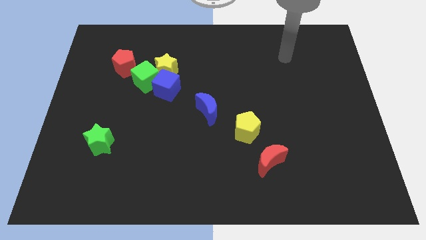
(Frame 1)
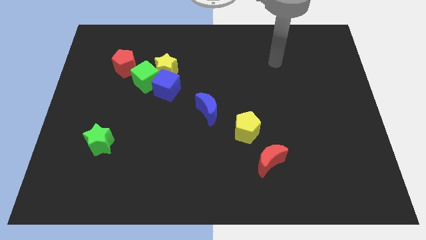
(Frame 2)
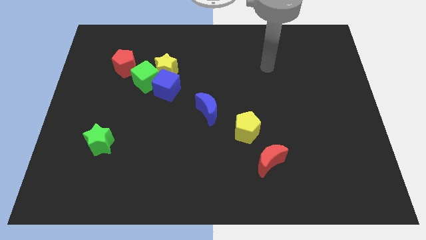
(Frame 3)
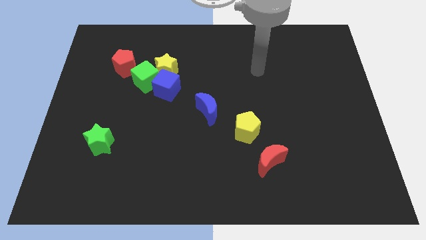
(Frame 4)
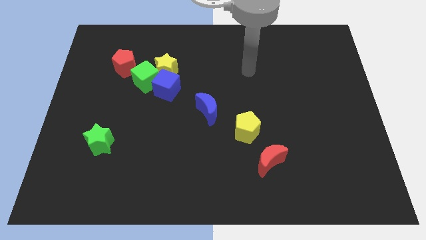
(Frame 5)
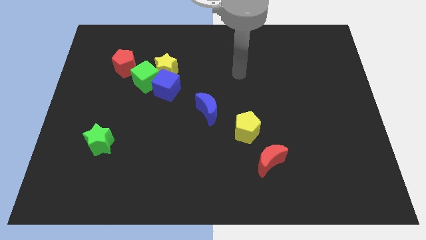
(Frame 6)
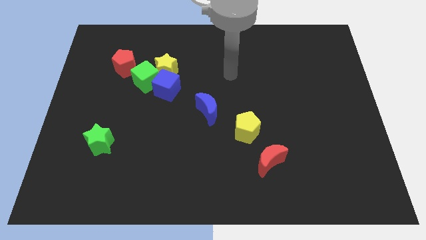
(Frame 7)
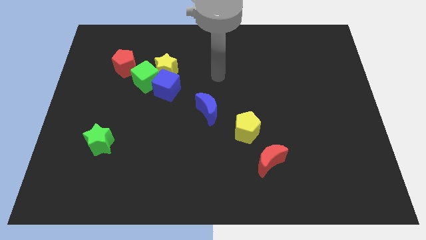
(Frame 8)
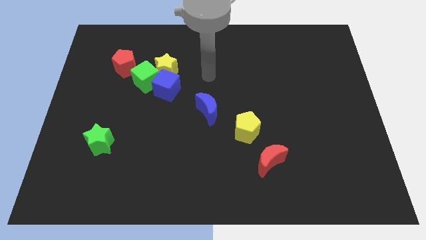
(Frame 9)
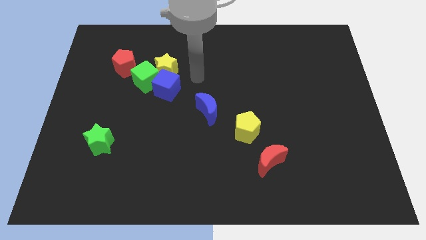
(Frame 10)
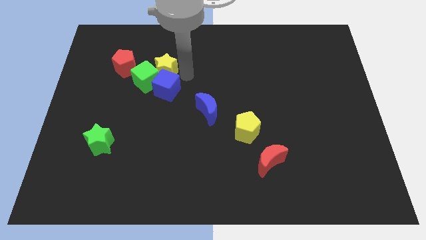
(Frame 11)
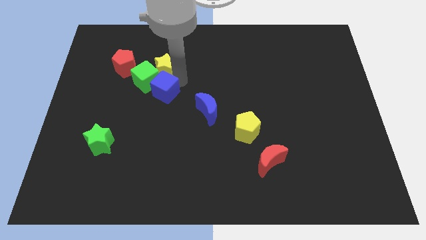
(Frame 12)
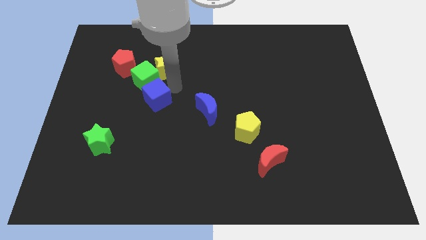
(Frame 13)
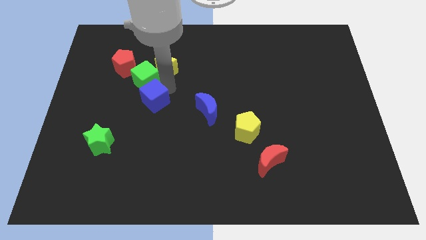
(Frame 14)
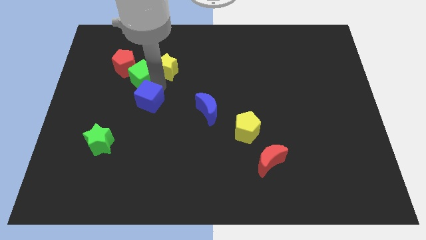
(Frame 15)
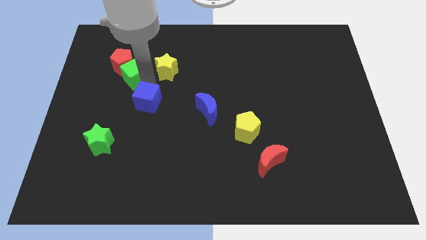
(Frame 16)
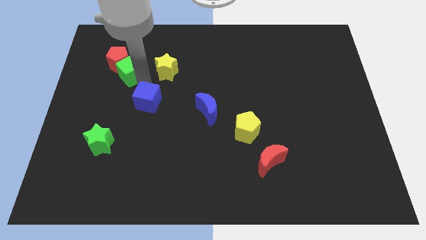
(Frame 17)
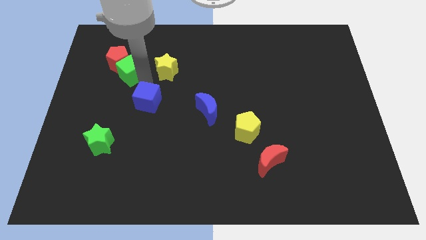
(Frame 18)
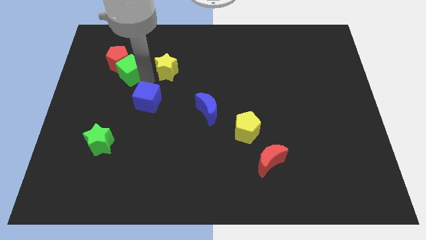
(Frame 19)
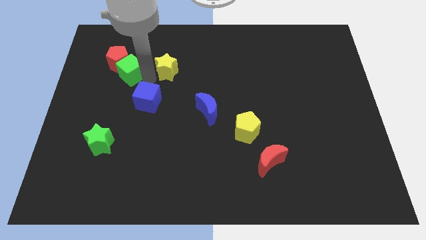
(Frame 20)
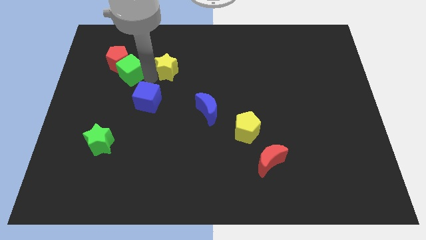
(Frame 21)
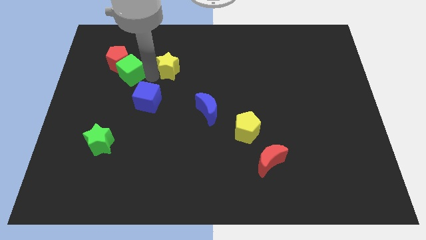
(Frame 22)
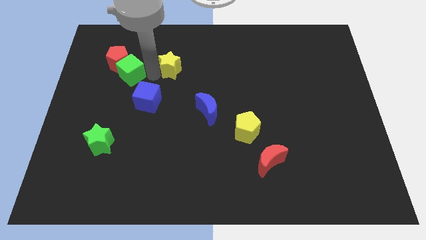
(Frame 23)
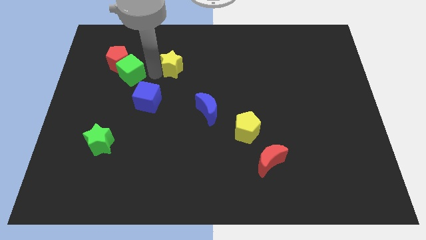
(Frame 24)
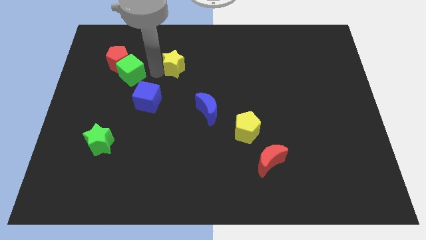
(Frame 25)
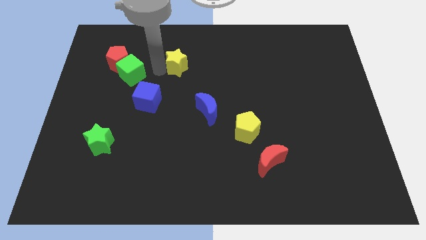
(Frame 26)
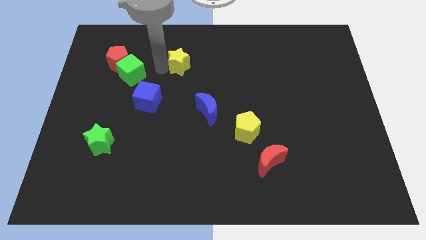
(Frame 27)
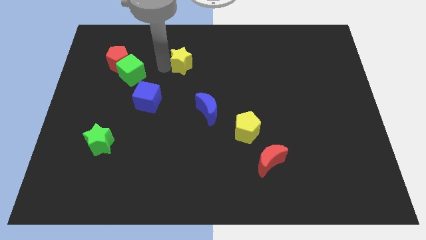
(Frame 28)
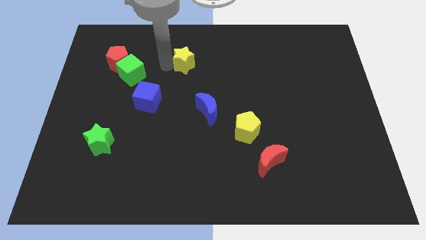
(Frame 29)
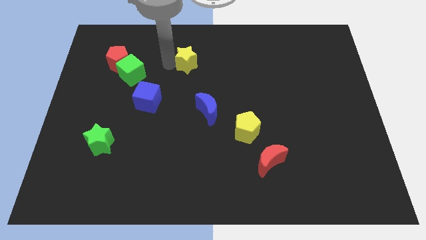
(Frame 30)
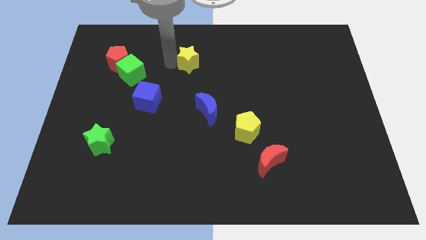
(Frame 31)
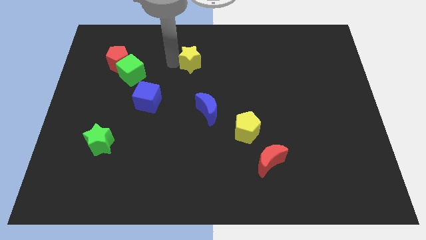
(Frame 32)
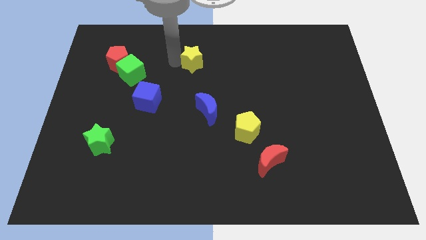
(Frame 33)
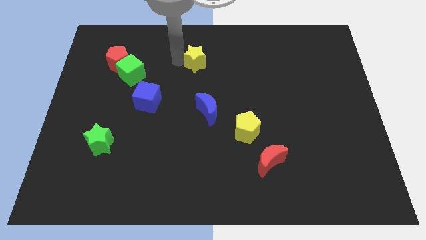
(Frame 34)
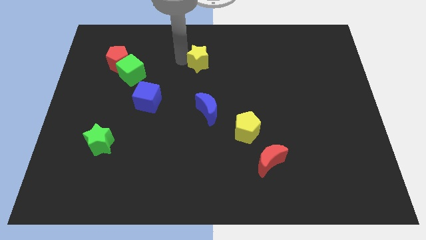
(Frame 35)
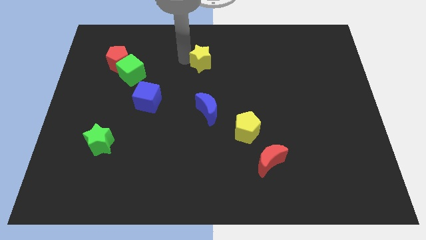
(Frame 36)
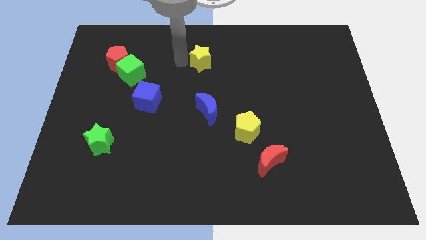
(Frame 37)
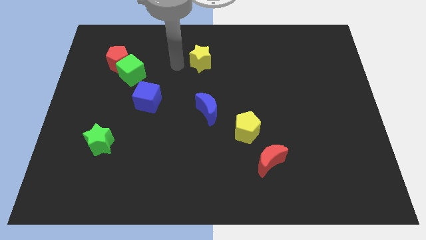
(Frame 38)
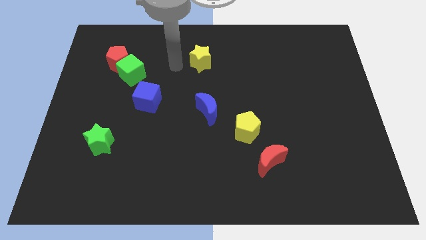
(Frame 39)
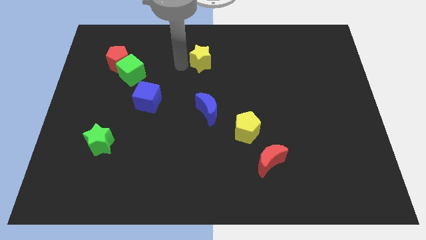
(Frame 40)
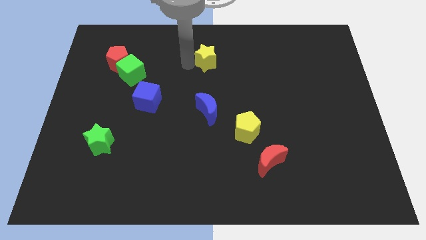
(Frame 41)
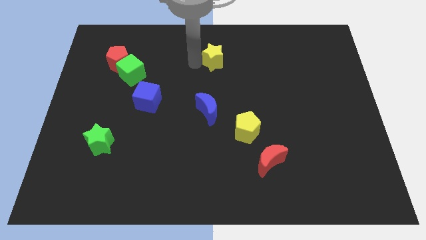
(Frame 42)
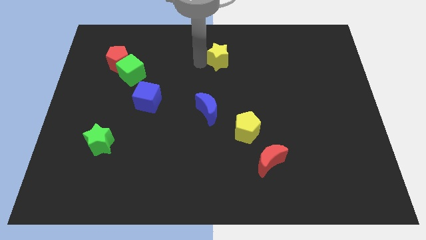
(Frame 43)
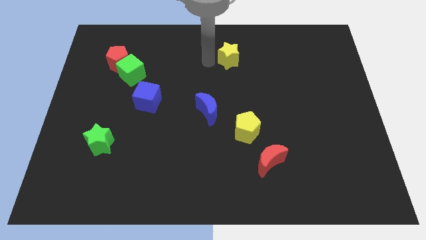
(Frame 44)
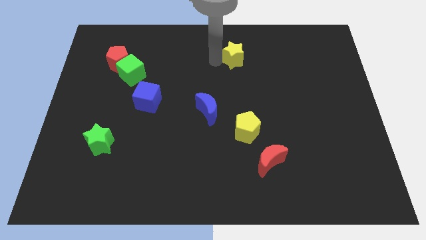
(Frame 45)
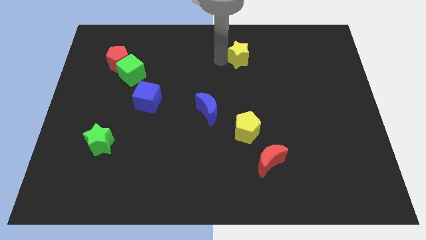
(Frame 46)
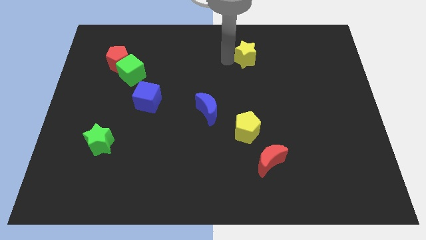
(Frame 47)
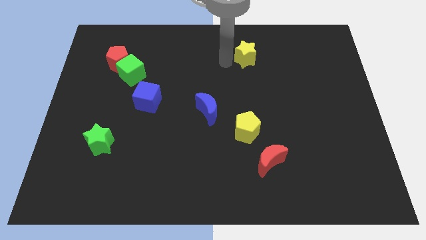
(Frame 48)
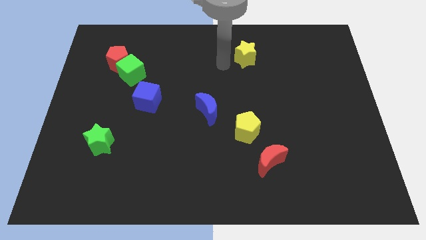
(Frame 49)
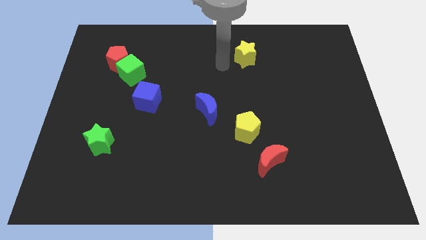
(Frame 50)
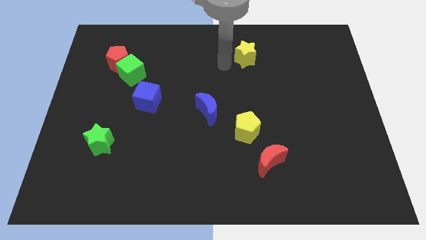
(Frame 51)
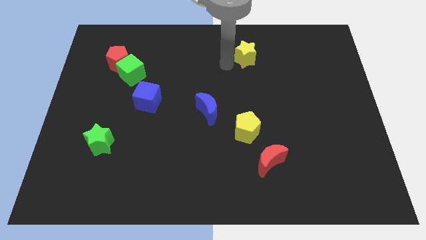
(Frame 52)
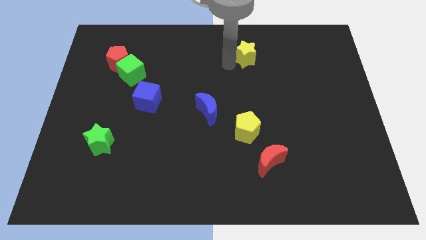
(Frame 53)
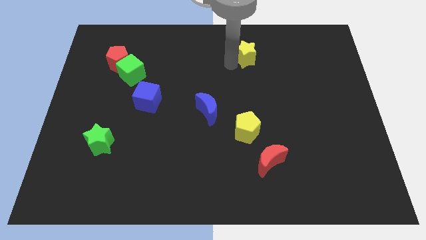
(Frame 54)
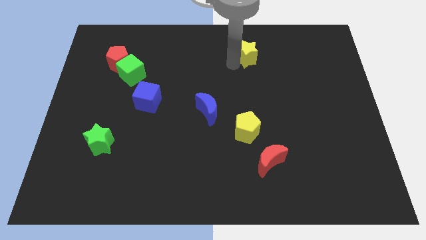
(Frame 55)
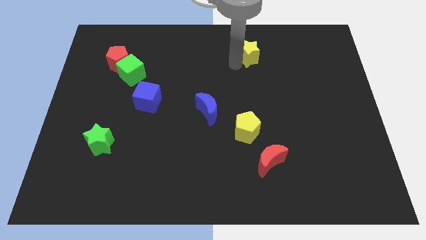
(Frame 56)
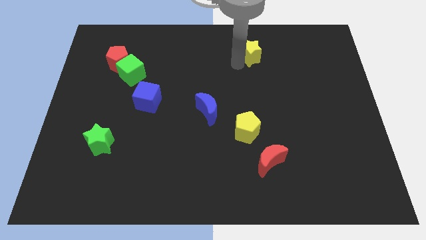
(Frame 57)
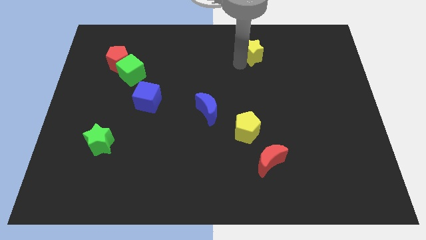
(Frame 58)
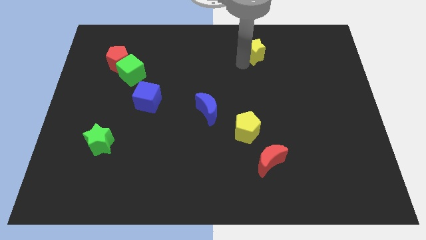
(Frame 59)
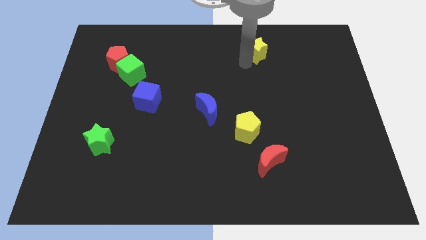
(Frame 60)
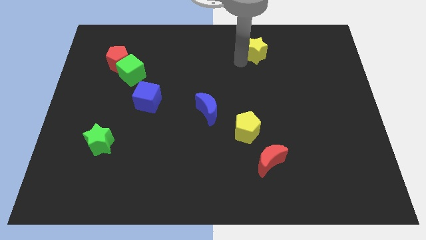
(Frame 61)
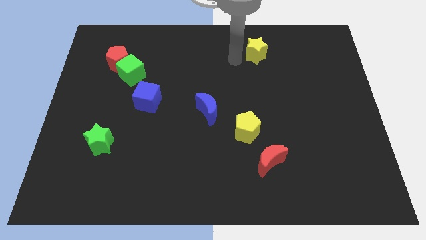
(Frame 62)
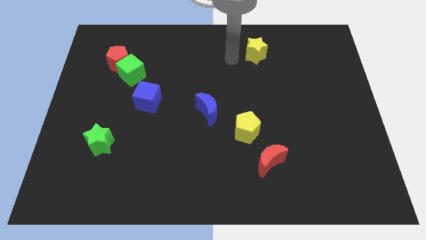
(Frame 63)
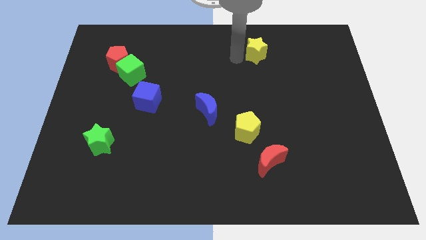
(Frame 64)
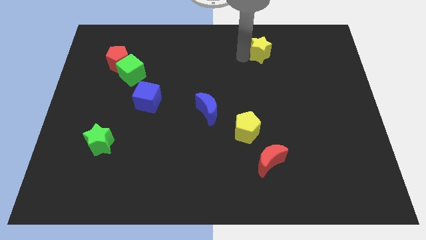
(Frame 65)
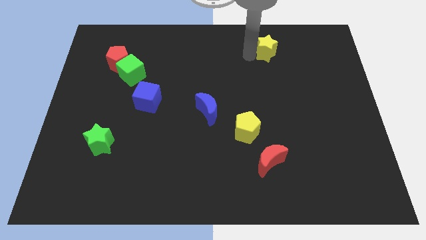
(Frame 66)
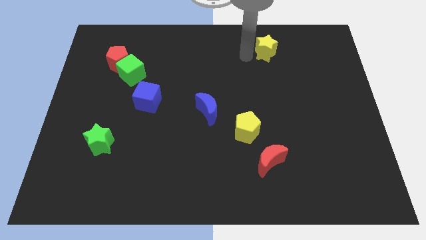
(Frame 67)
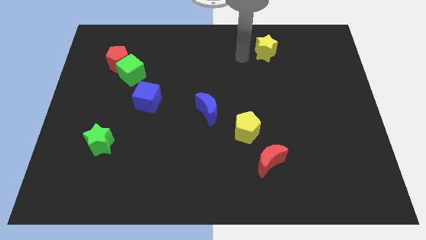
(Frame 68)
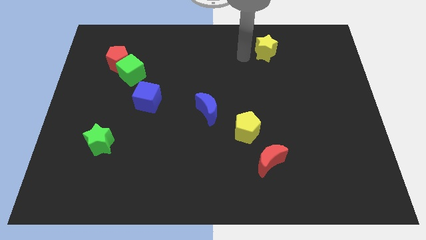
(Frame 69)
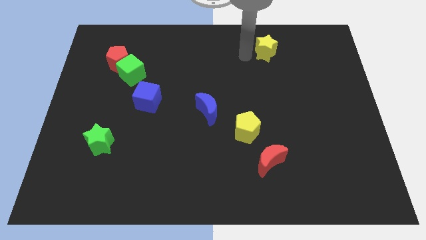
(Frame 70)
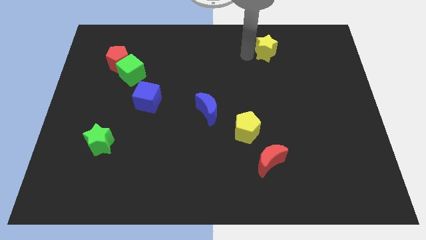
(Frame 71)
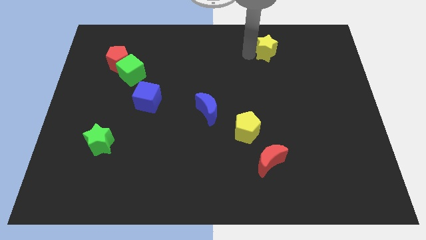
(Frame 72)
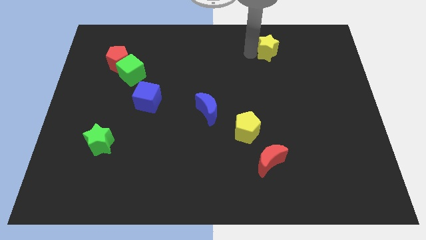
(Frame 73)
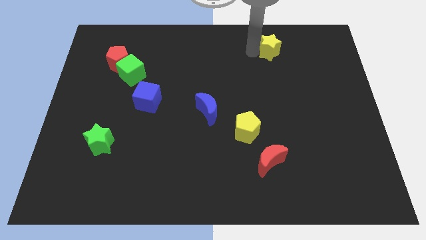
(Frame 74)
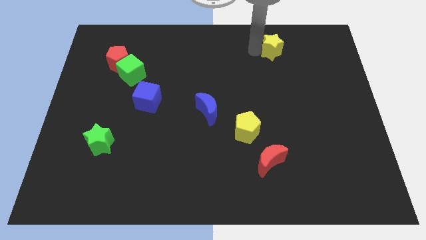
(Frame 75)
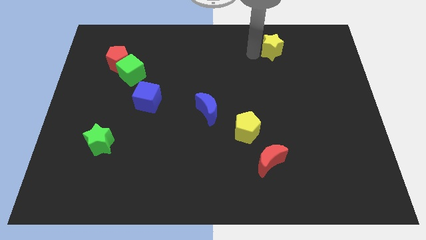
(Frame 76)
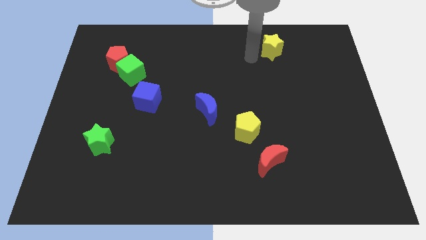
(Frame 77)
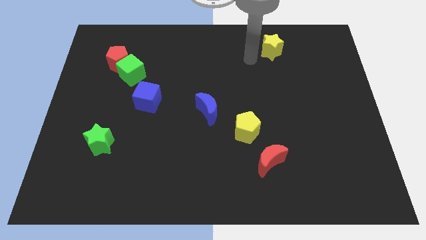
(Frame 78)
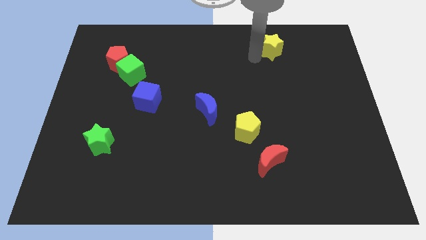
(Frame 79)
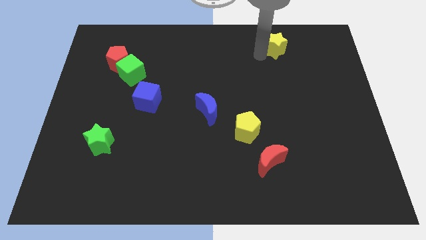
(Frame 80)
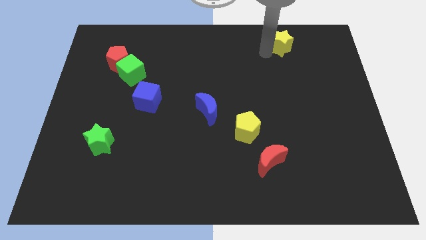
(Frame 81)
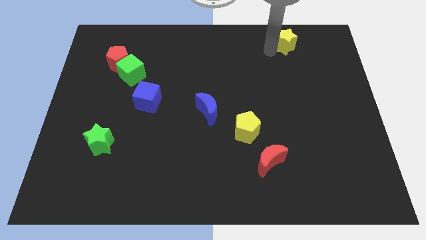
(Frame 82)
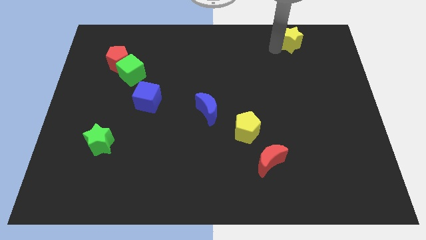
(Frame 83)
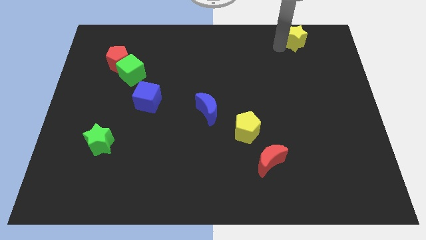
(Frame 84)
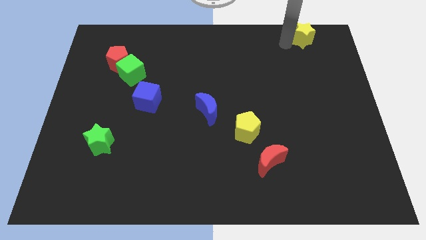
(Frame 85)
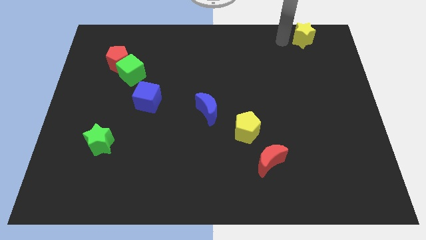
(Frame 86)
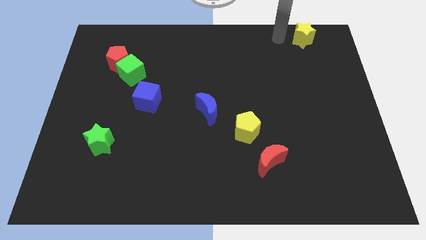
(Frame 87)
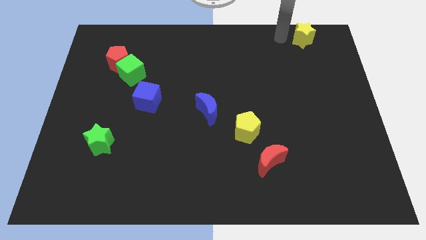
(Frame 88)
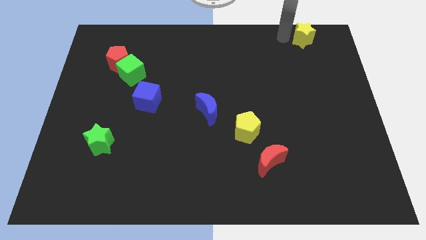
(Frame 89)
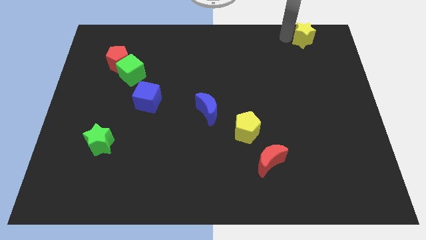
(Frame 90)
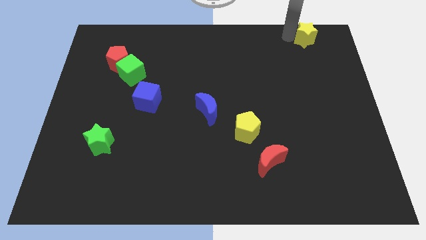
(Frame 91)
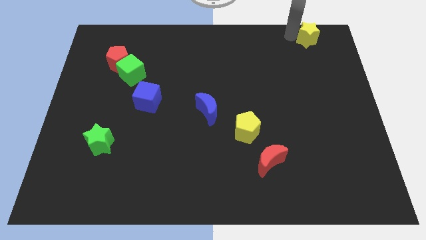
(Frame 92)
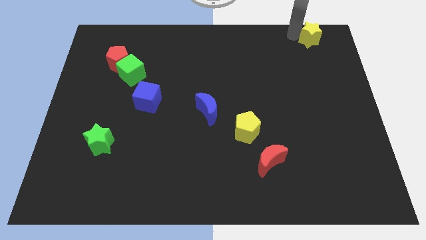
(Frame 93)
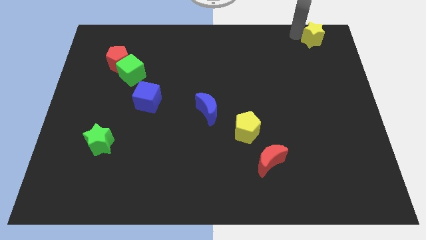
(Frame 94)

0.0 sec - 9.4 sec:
move the yellow star to the top right corner
